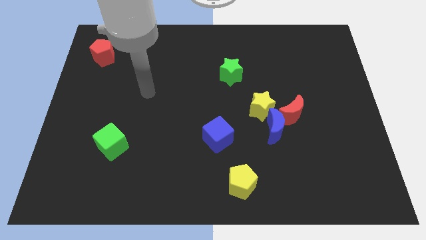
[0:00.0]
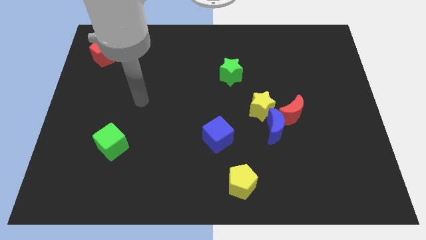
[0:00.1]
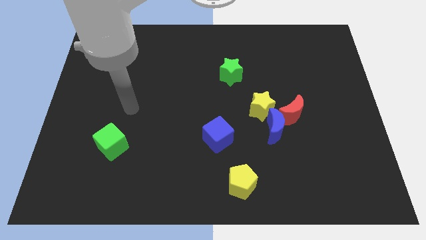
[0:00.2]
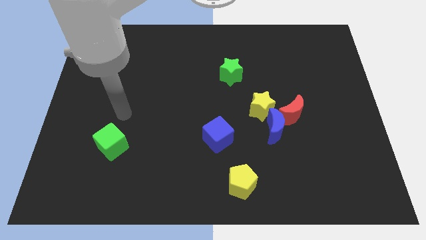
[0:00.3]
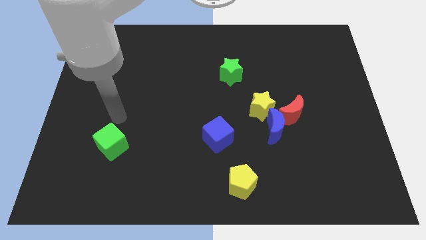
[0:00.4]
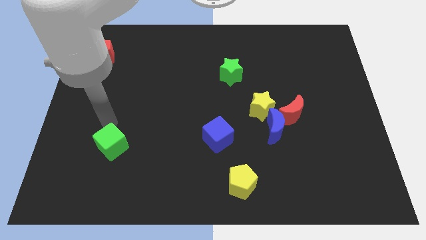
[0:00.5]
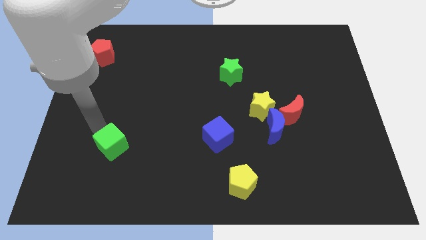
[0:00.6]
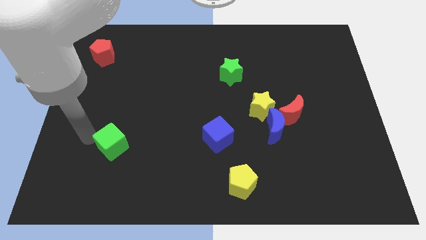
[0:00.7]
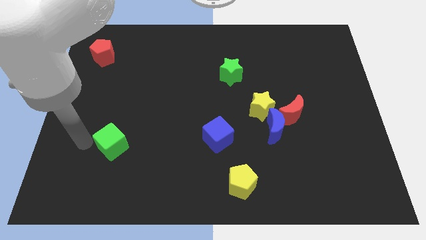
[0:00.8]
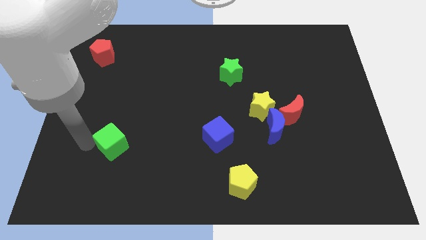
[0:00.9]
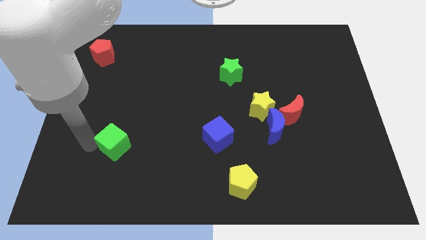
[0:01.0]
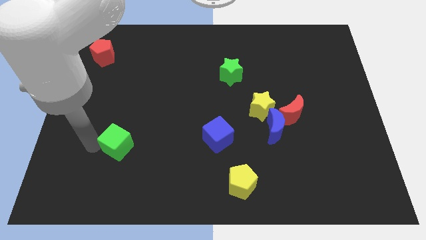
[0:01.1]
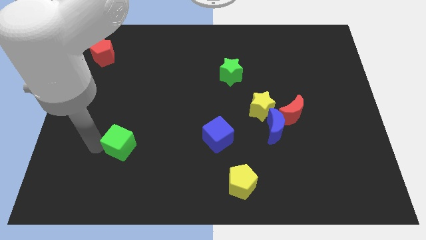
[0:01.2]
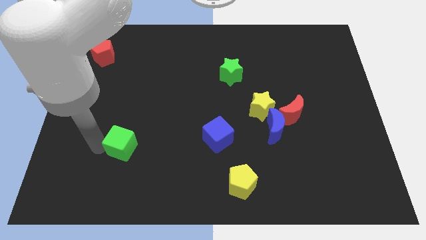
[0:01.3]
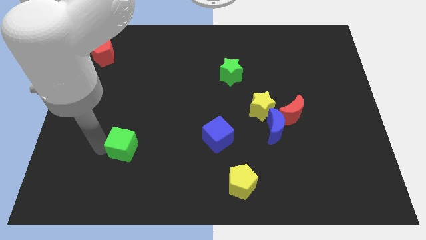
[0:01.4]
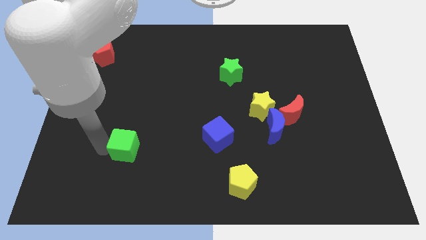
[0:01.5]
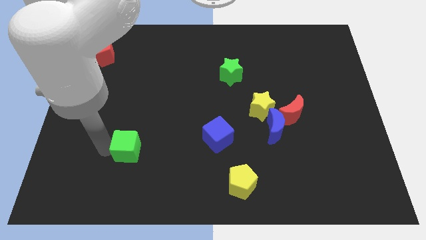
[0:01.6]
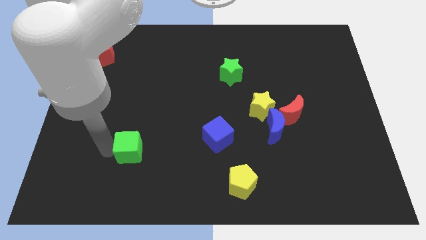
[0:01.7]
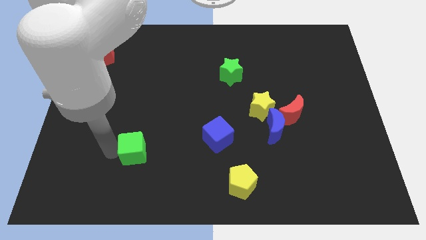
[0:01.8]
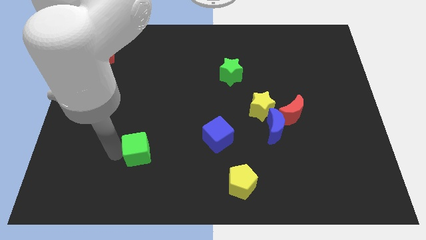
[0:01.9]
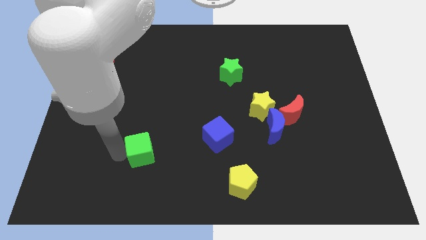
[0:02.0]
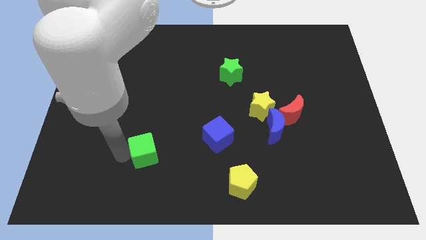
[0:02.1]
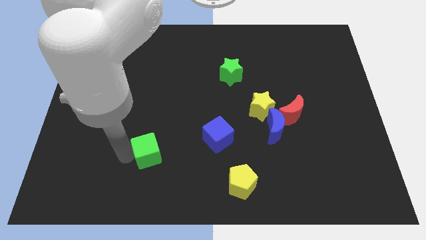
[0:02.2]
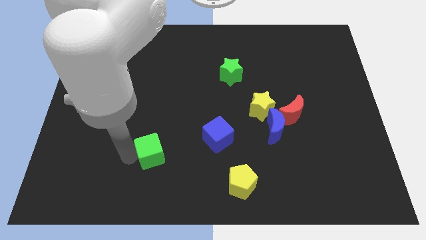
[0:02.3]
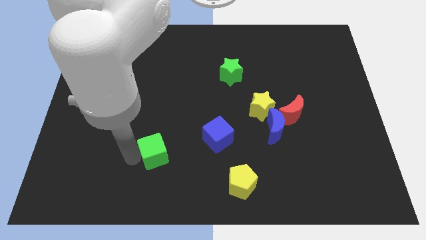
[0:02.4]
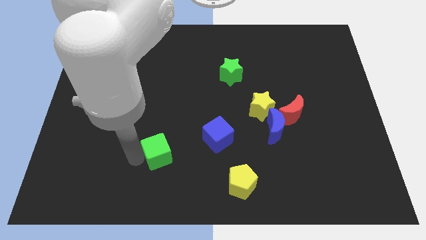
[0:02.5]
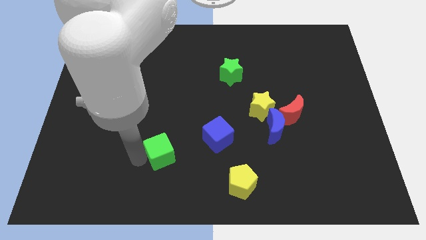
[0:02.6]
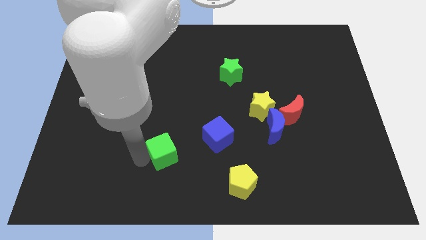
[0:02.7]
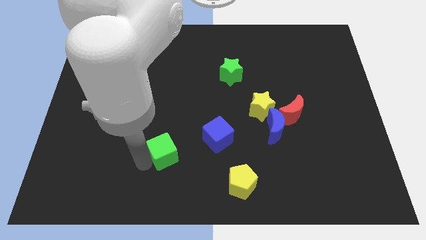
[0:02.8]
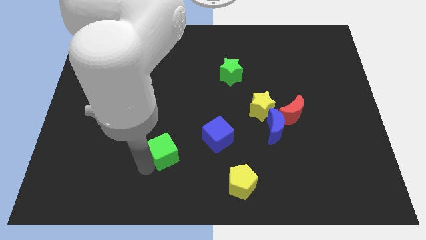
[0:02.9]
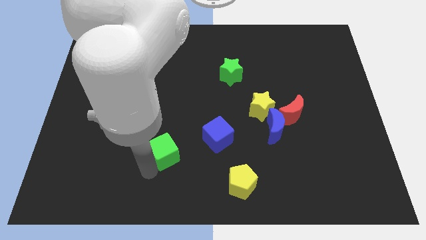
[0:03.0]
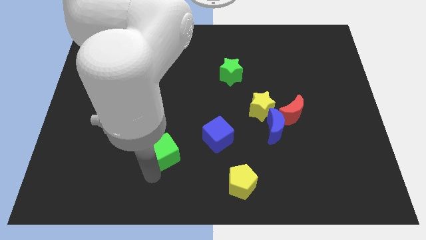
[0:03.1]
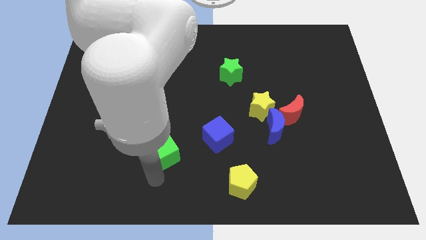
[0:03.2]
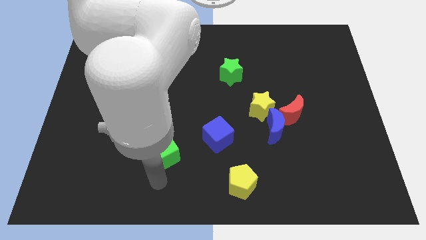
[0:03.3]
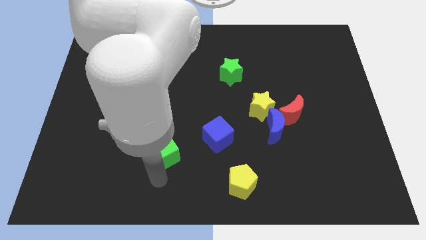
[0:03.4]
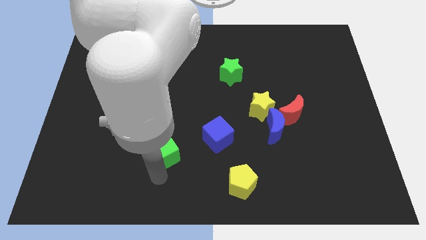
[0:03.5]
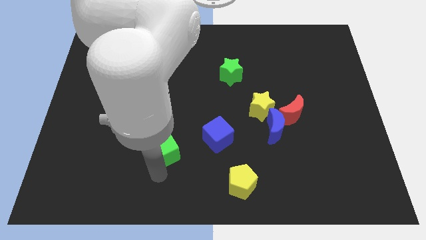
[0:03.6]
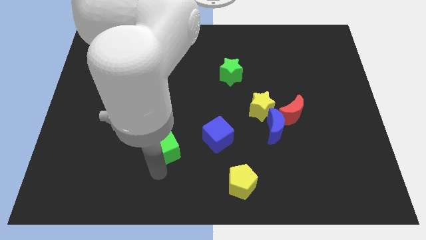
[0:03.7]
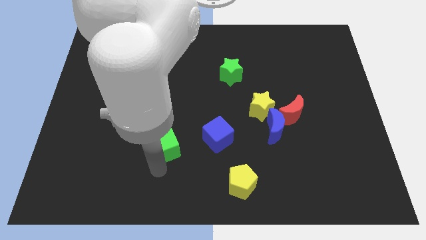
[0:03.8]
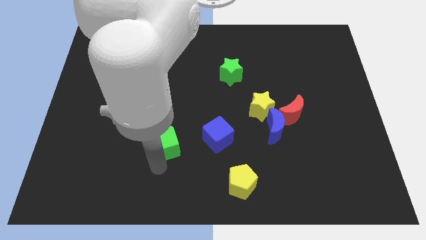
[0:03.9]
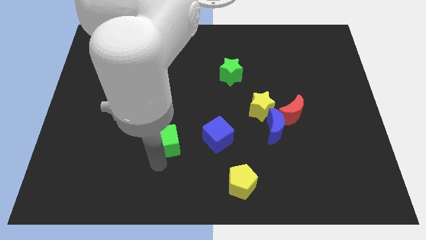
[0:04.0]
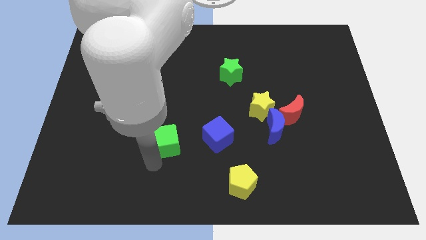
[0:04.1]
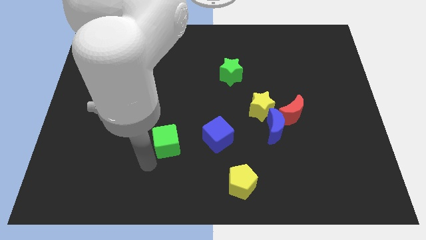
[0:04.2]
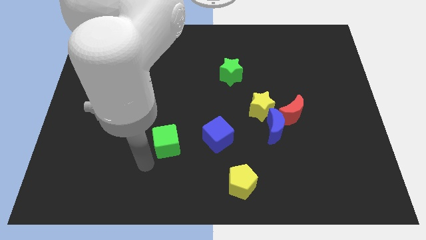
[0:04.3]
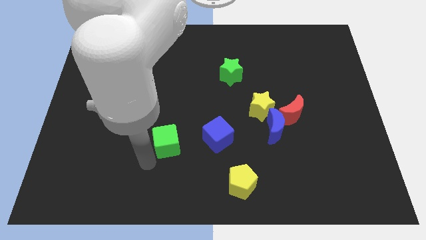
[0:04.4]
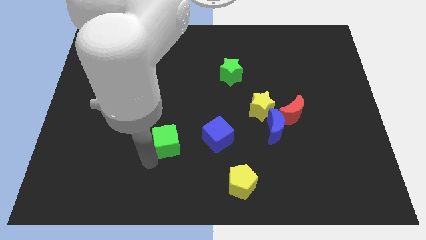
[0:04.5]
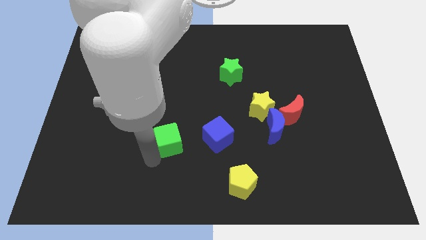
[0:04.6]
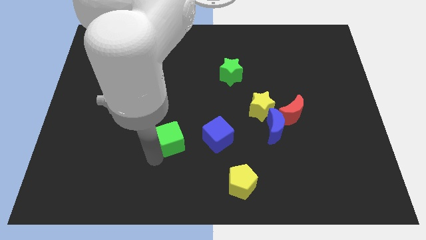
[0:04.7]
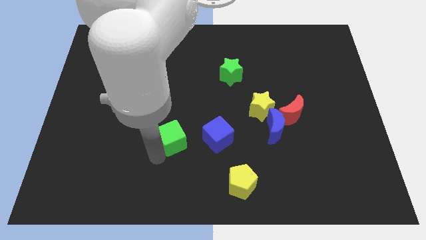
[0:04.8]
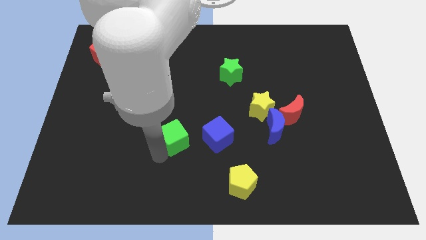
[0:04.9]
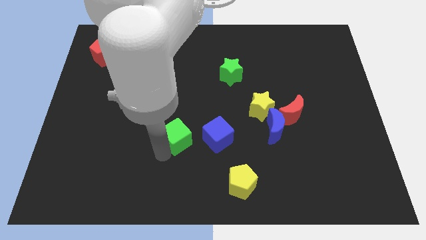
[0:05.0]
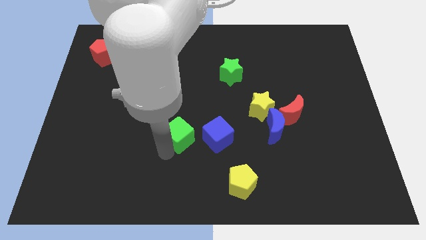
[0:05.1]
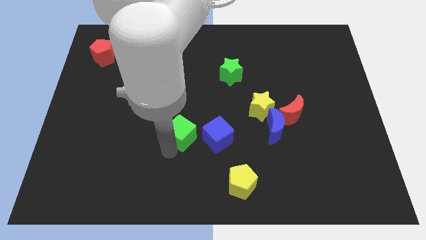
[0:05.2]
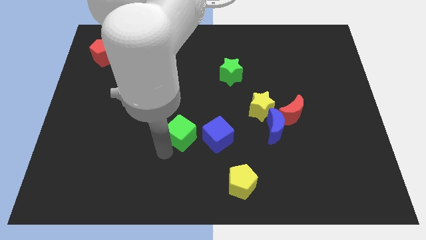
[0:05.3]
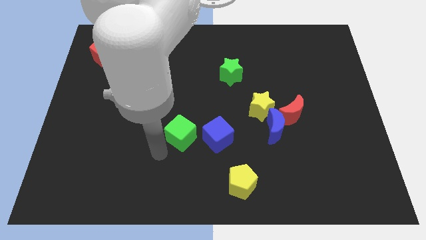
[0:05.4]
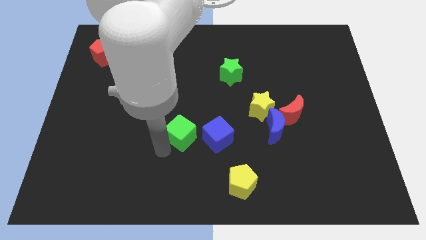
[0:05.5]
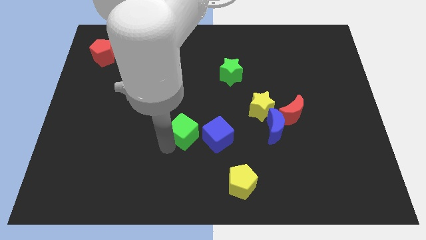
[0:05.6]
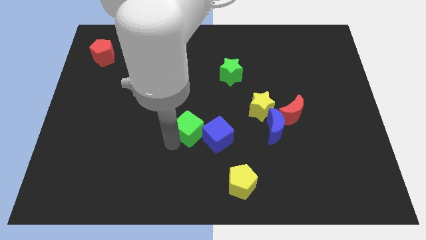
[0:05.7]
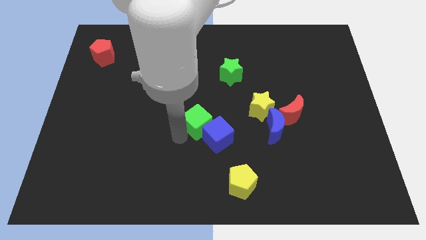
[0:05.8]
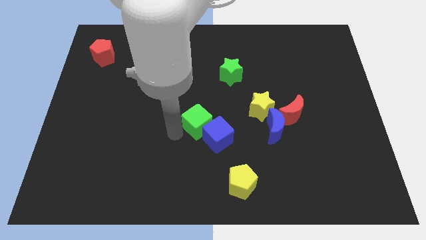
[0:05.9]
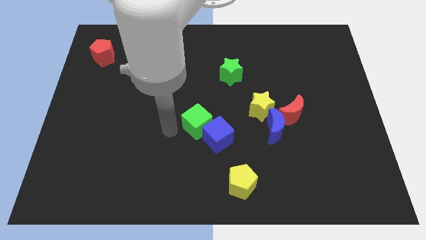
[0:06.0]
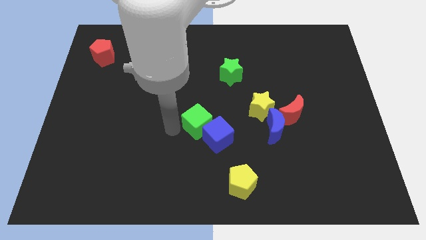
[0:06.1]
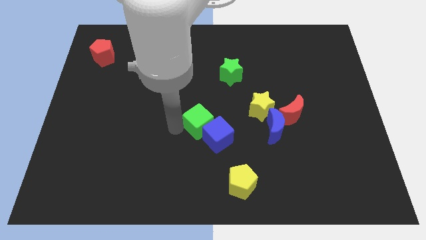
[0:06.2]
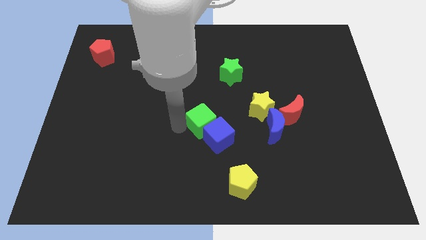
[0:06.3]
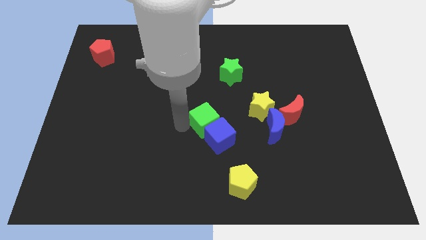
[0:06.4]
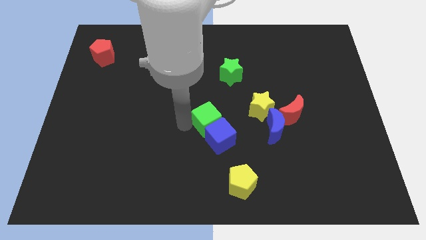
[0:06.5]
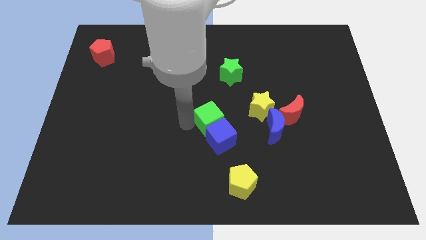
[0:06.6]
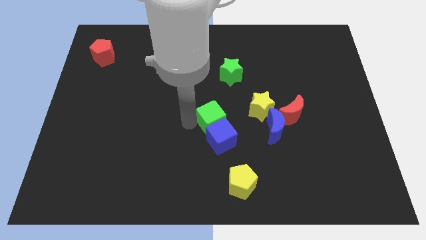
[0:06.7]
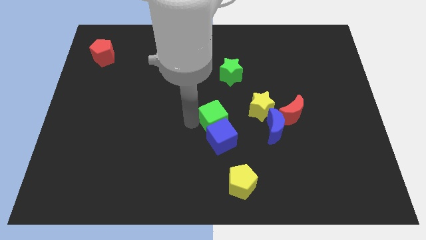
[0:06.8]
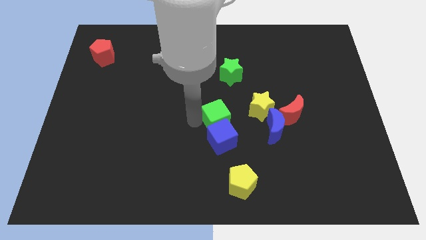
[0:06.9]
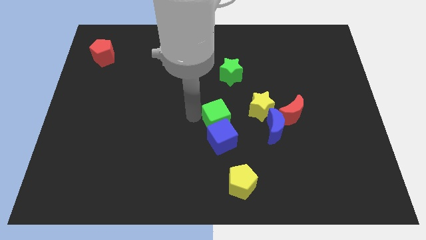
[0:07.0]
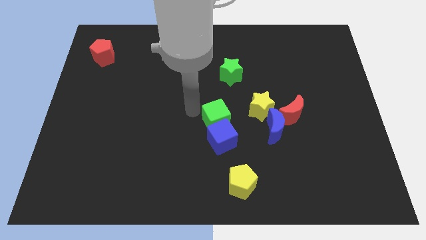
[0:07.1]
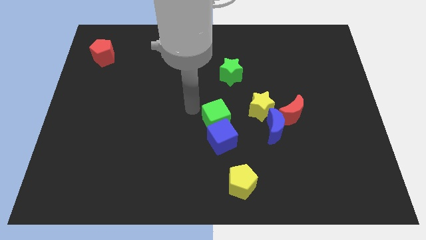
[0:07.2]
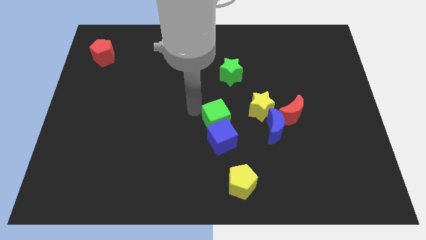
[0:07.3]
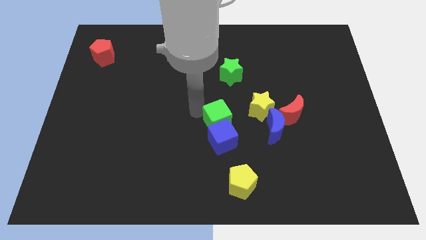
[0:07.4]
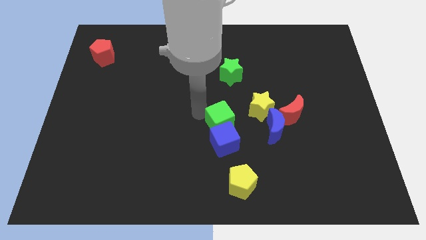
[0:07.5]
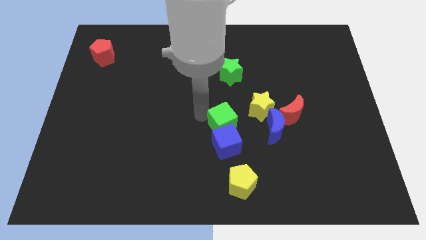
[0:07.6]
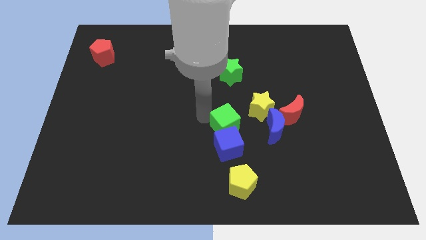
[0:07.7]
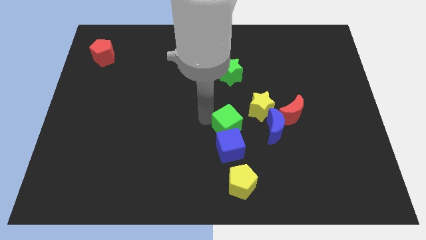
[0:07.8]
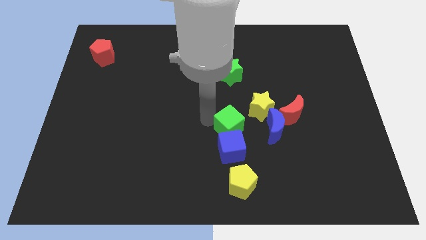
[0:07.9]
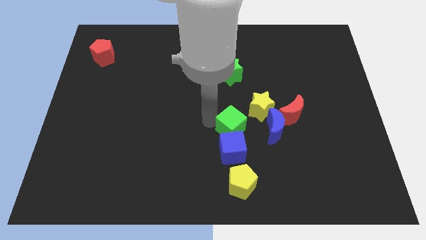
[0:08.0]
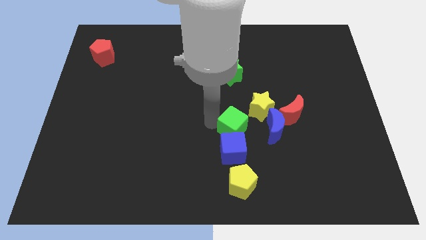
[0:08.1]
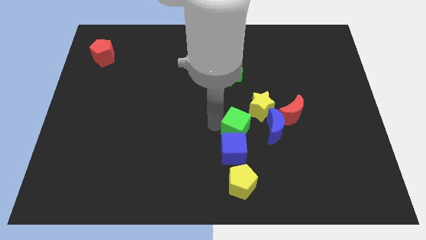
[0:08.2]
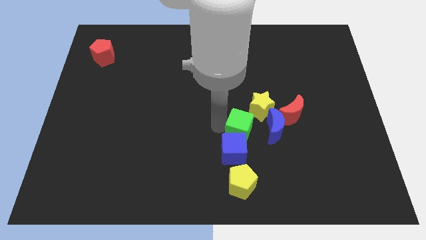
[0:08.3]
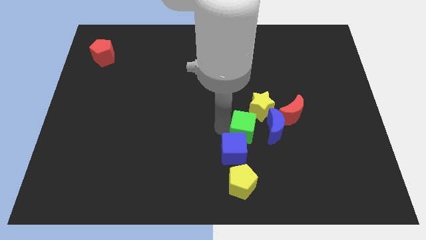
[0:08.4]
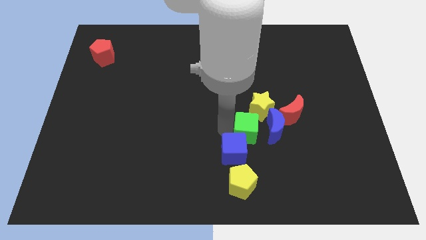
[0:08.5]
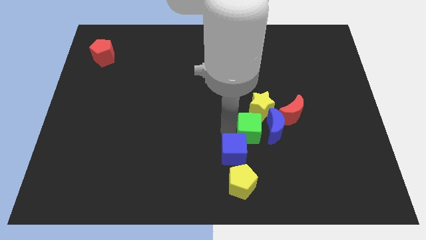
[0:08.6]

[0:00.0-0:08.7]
put the green cube to the blue moon
